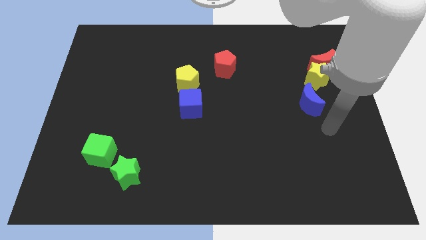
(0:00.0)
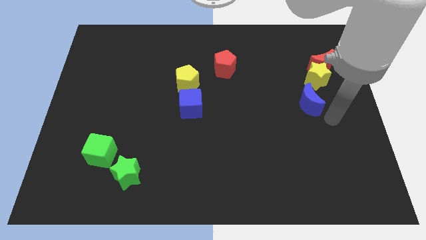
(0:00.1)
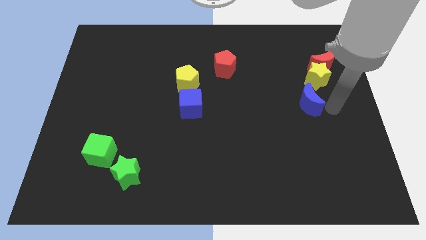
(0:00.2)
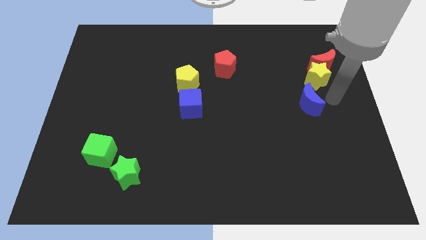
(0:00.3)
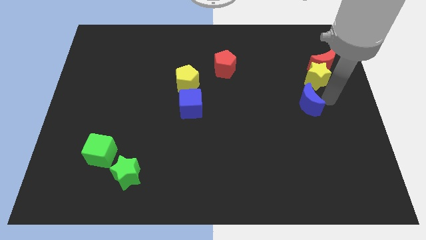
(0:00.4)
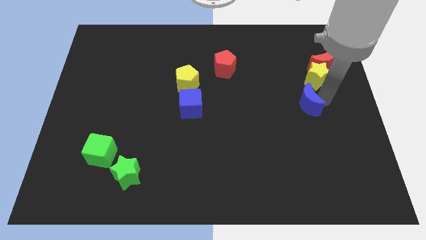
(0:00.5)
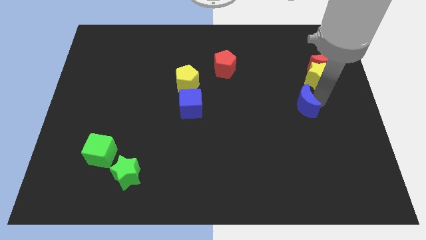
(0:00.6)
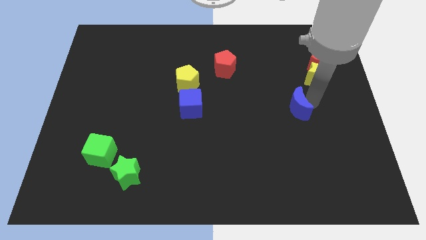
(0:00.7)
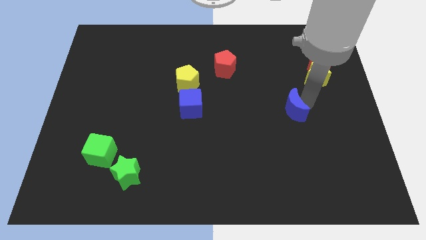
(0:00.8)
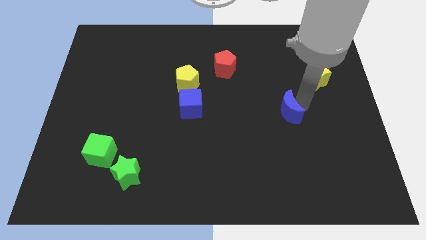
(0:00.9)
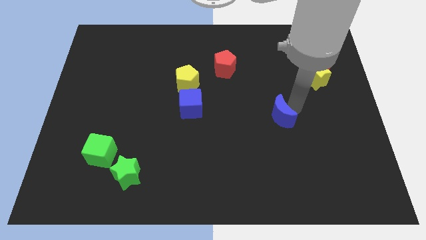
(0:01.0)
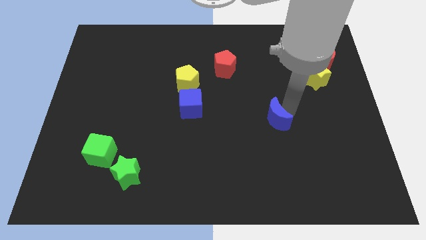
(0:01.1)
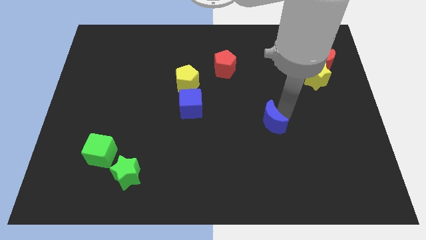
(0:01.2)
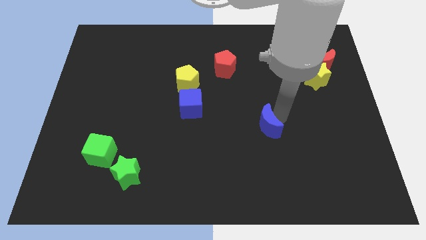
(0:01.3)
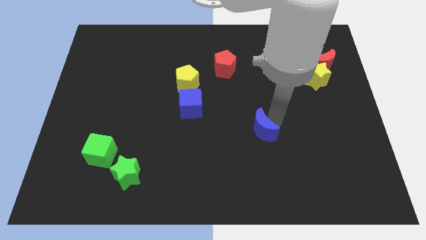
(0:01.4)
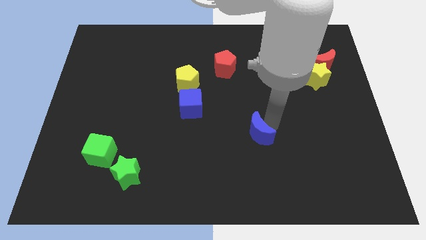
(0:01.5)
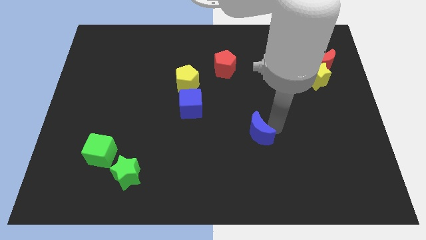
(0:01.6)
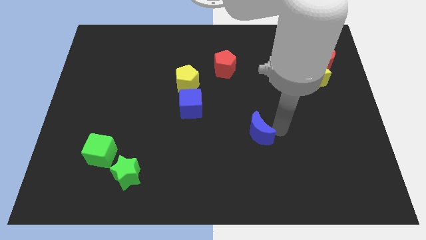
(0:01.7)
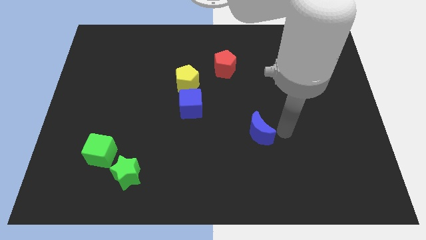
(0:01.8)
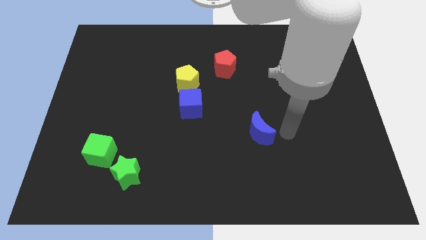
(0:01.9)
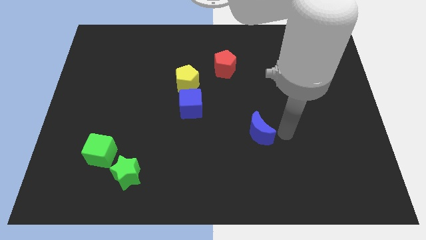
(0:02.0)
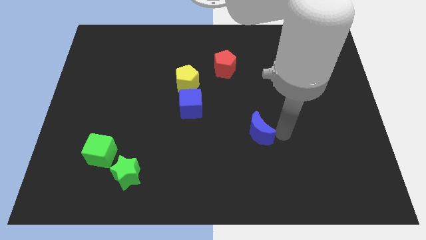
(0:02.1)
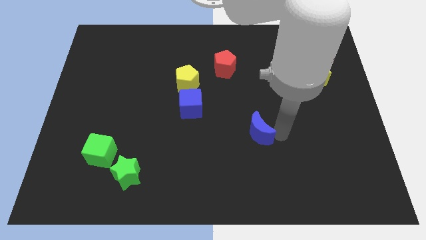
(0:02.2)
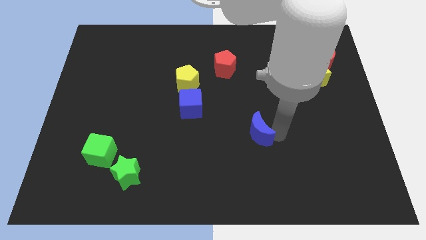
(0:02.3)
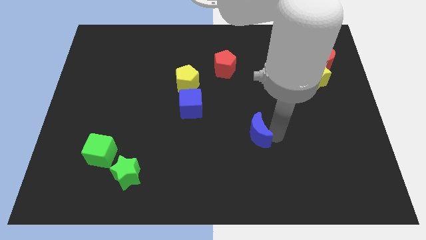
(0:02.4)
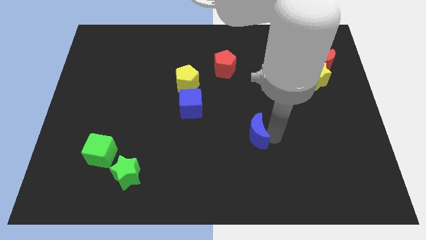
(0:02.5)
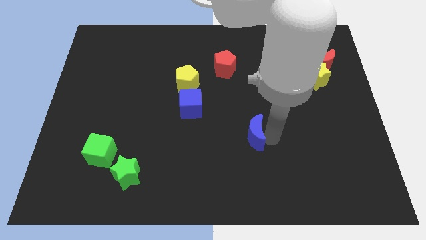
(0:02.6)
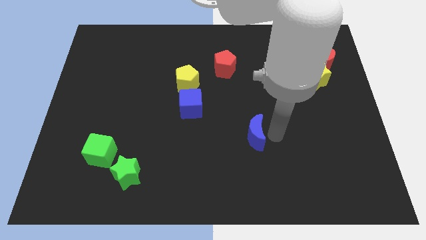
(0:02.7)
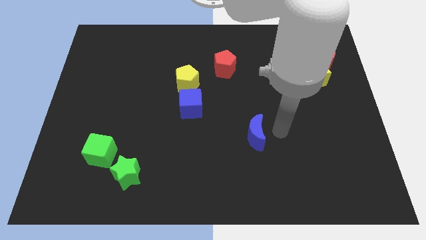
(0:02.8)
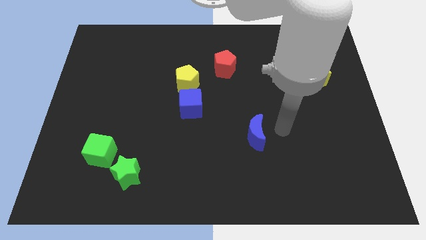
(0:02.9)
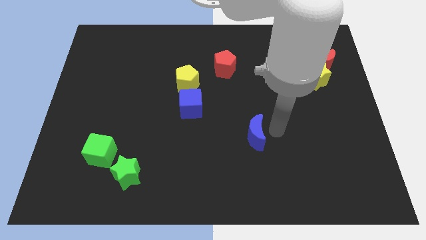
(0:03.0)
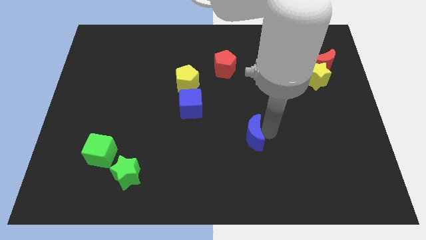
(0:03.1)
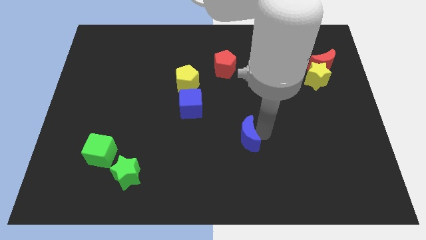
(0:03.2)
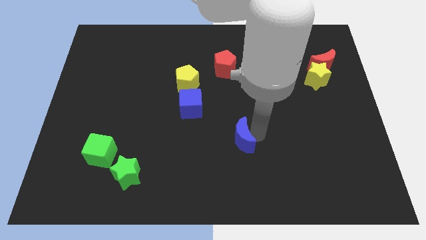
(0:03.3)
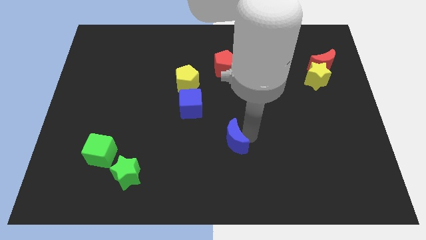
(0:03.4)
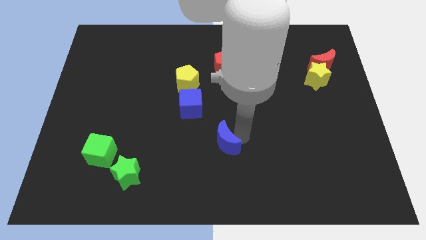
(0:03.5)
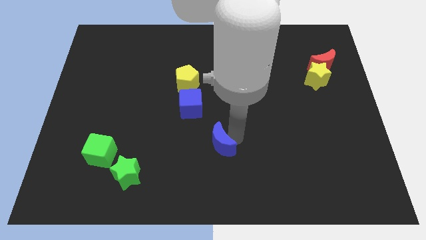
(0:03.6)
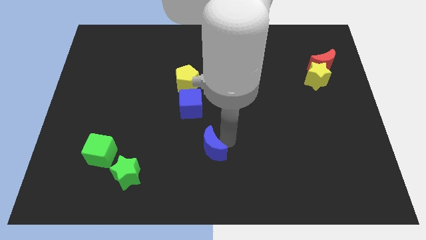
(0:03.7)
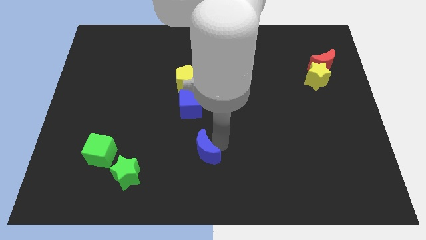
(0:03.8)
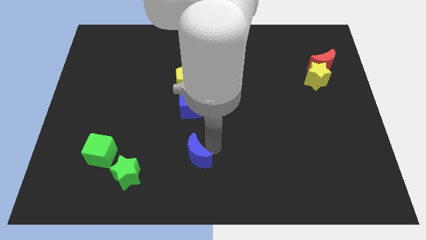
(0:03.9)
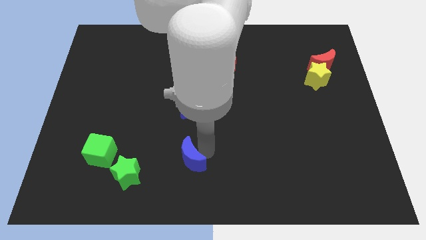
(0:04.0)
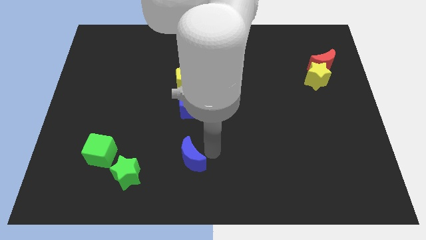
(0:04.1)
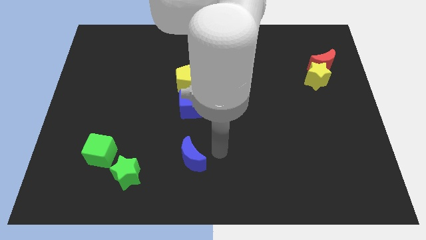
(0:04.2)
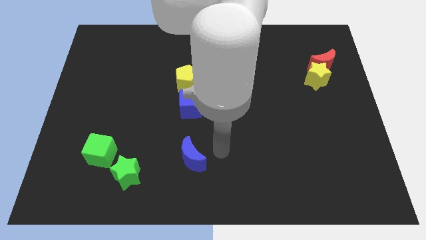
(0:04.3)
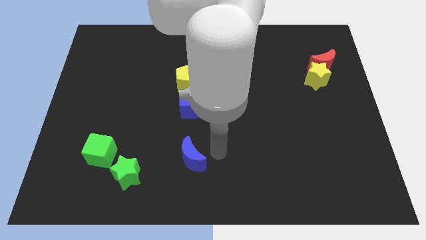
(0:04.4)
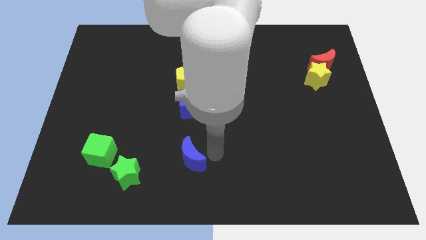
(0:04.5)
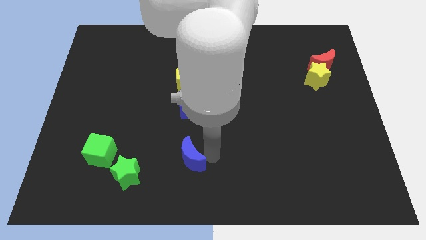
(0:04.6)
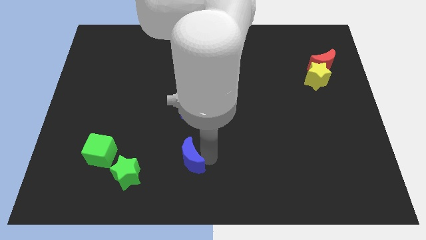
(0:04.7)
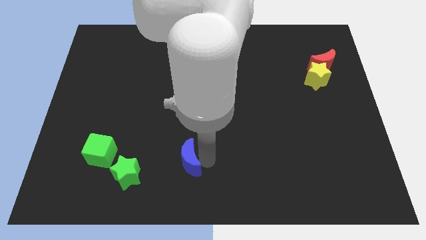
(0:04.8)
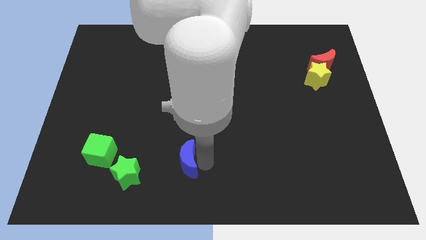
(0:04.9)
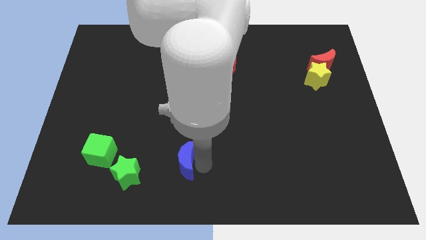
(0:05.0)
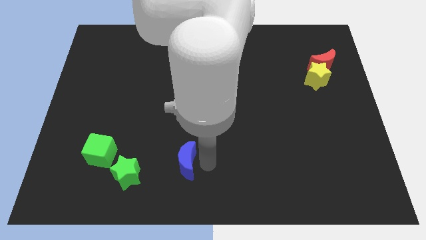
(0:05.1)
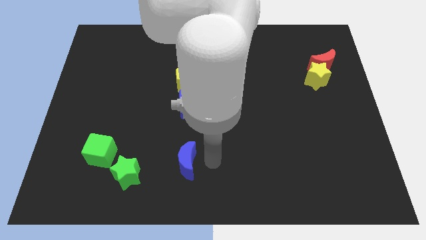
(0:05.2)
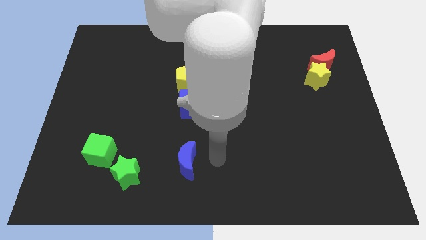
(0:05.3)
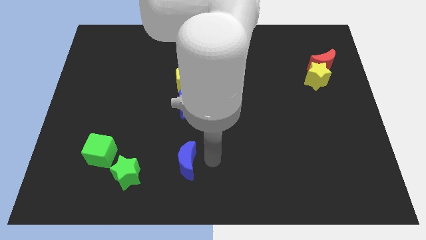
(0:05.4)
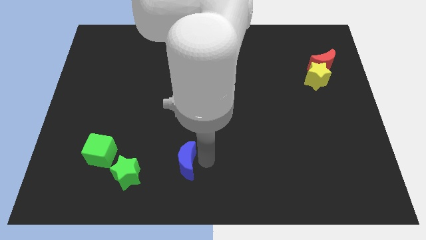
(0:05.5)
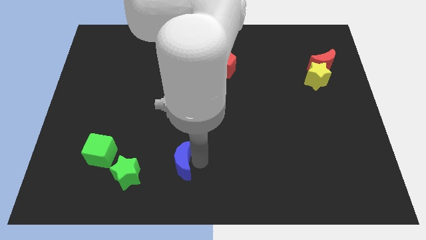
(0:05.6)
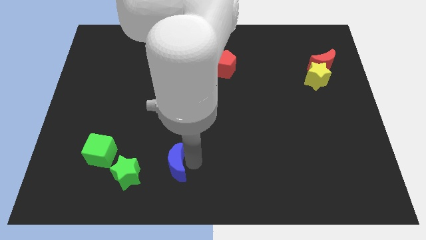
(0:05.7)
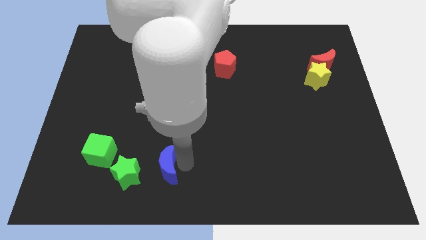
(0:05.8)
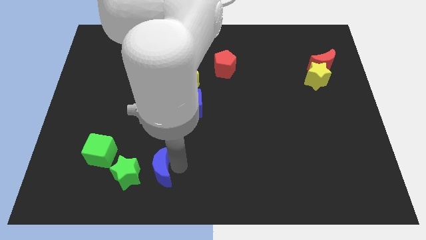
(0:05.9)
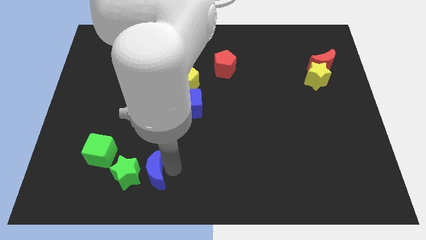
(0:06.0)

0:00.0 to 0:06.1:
push the blue moon towards the green star
